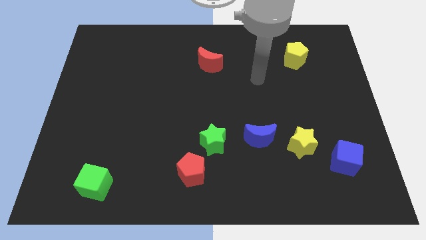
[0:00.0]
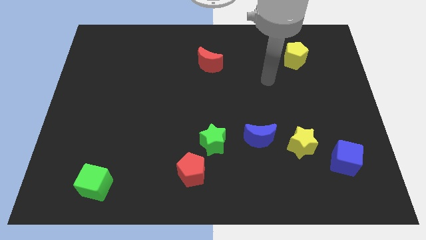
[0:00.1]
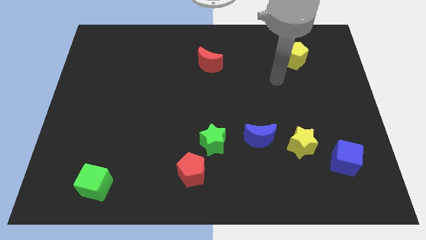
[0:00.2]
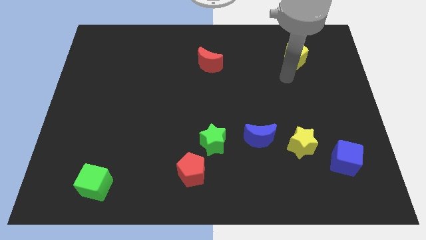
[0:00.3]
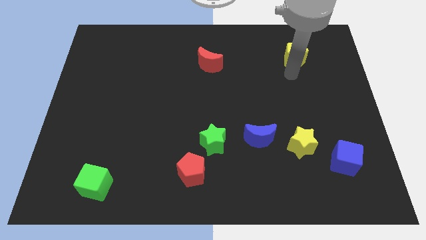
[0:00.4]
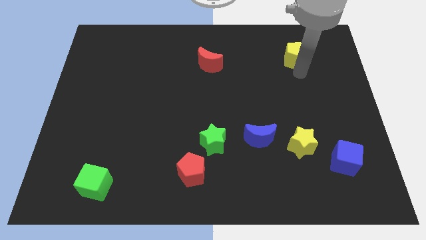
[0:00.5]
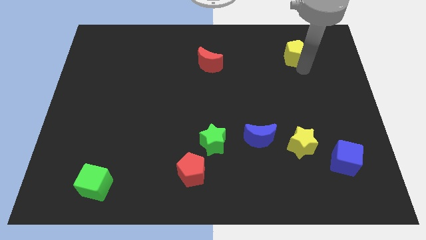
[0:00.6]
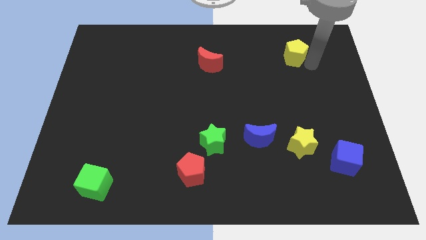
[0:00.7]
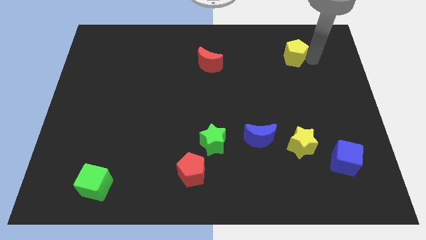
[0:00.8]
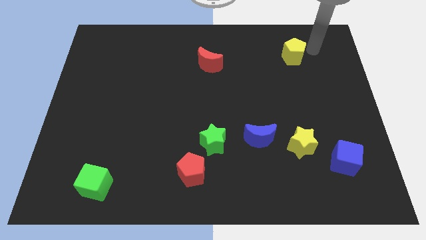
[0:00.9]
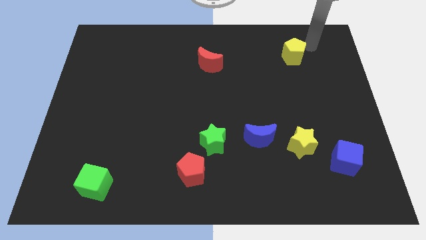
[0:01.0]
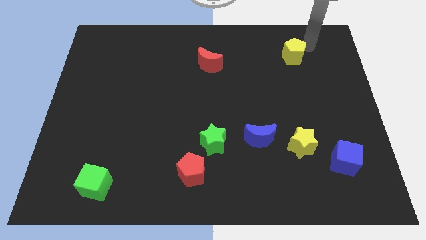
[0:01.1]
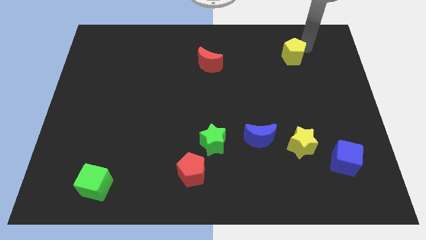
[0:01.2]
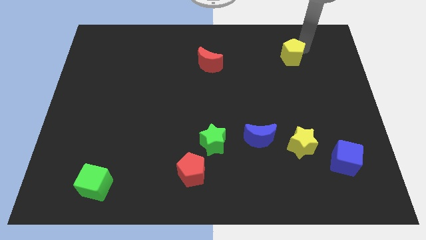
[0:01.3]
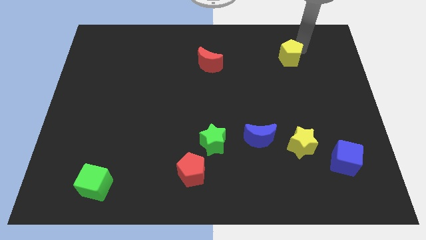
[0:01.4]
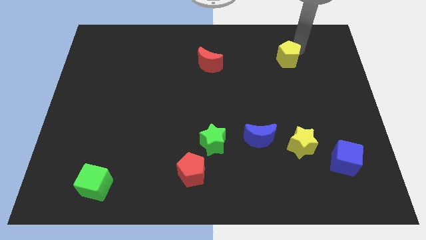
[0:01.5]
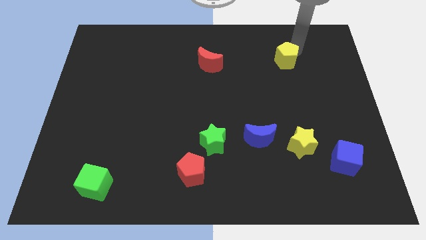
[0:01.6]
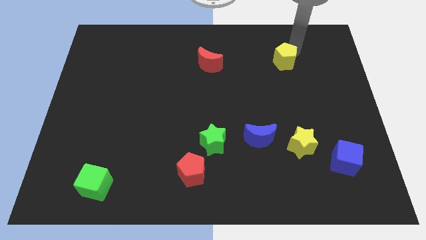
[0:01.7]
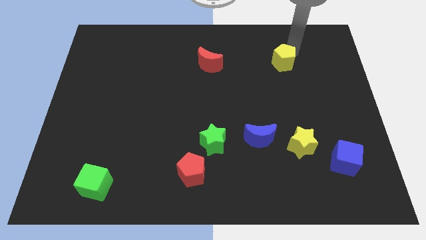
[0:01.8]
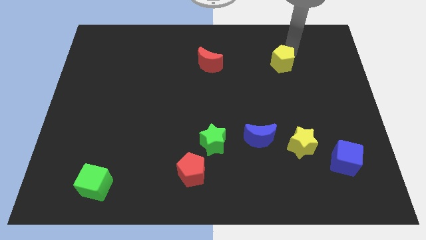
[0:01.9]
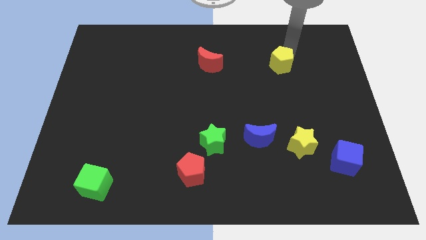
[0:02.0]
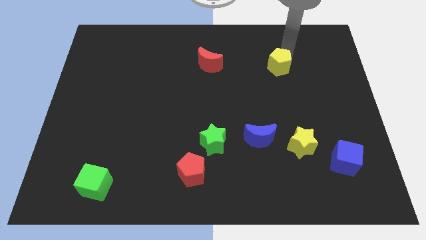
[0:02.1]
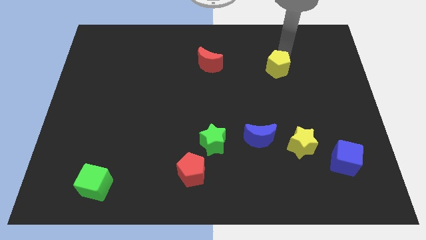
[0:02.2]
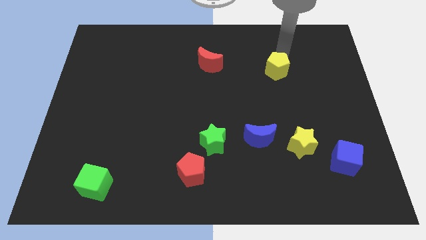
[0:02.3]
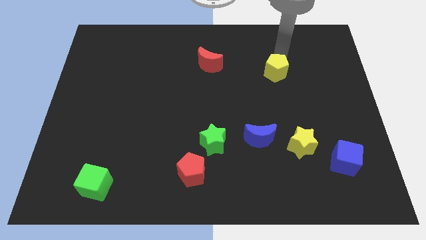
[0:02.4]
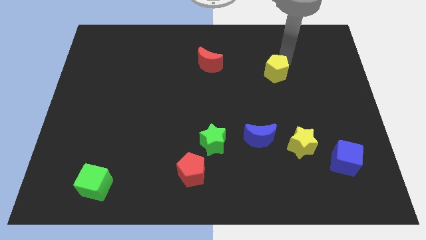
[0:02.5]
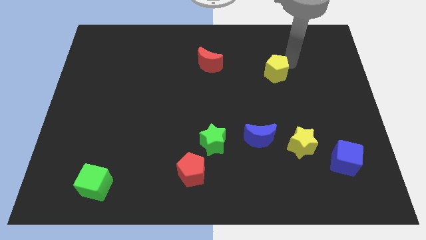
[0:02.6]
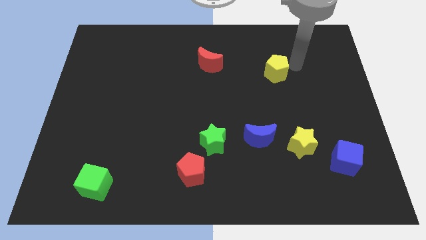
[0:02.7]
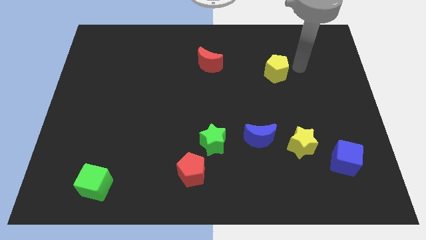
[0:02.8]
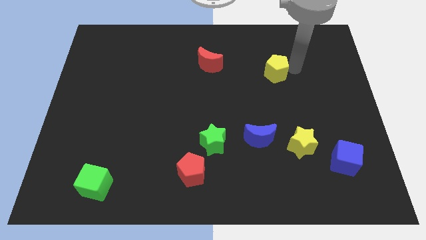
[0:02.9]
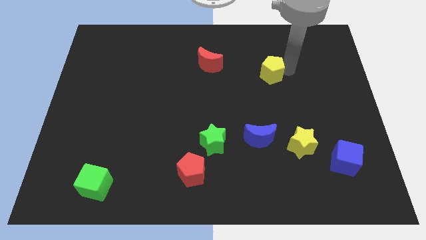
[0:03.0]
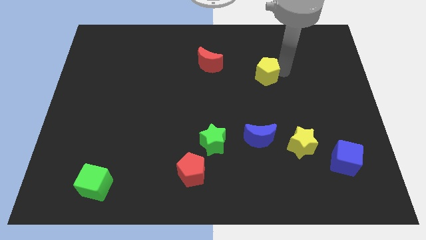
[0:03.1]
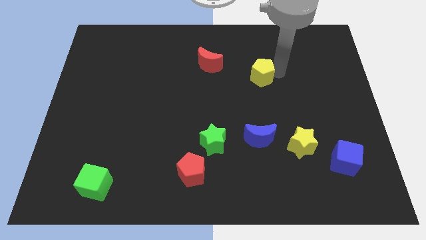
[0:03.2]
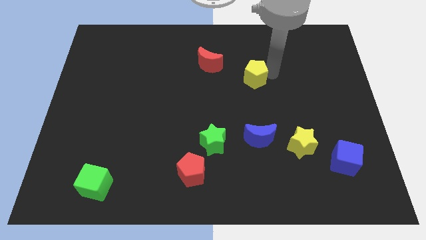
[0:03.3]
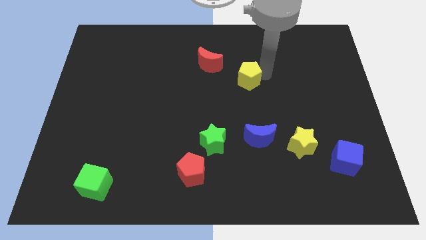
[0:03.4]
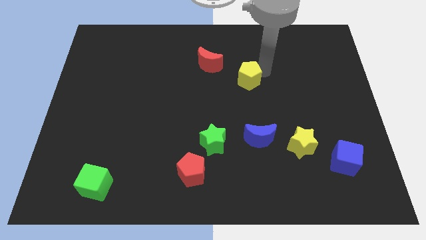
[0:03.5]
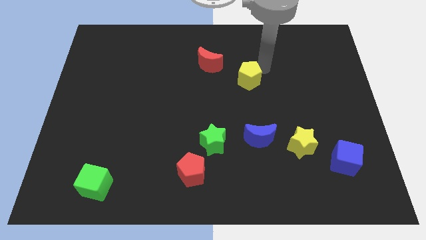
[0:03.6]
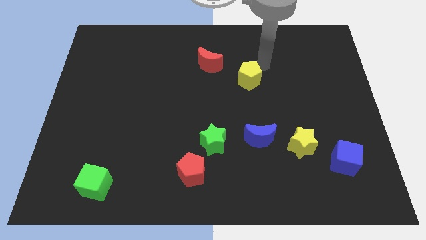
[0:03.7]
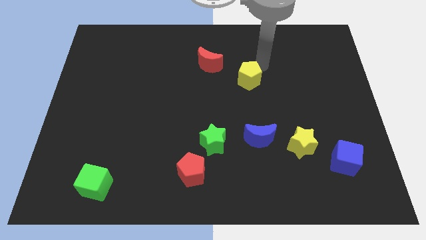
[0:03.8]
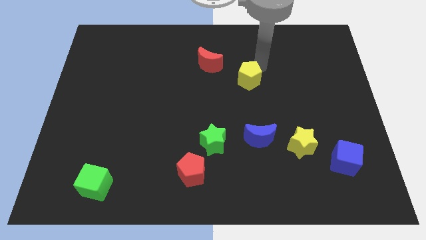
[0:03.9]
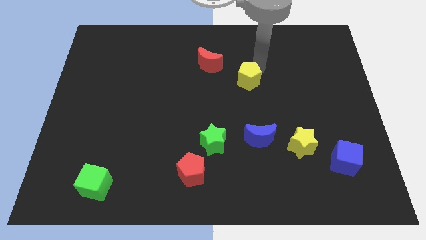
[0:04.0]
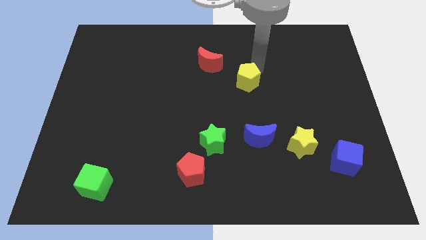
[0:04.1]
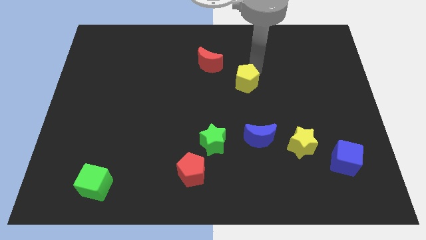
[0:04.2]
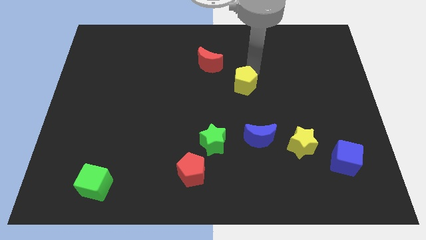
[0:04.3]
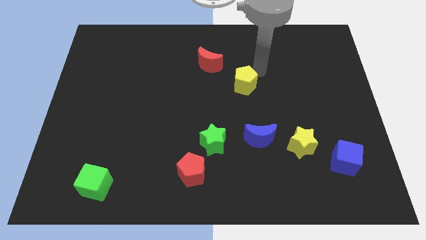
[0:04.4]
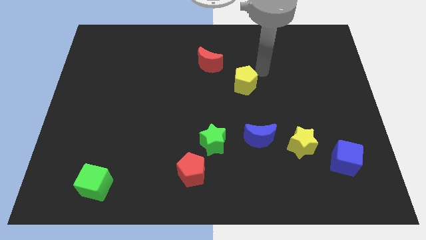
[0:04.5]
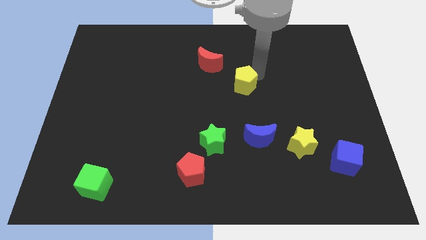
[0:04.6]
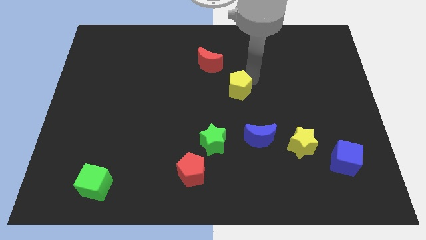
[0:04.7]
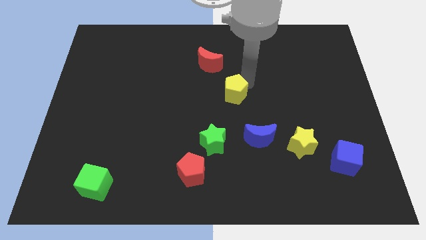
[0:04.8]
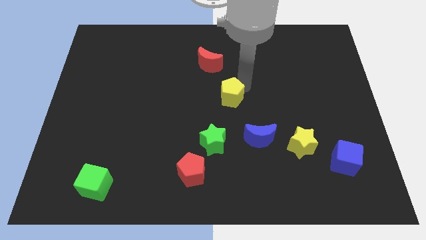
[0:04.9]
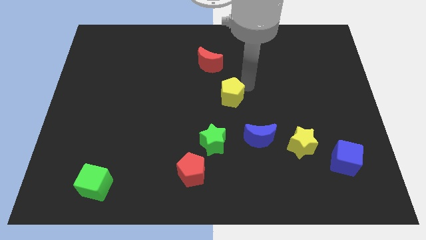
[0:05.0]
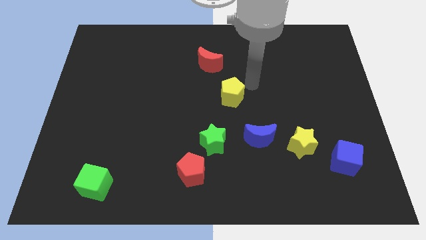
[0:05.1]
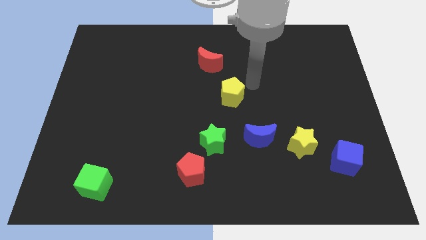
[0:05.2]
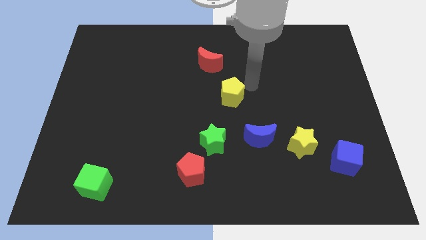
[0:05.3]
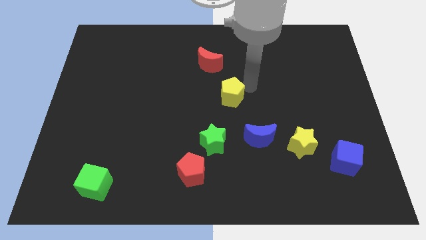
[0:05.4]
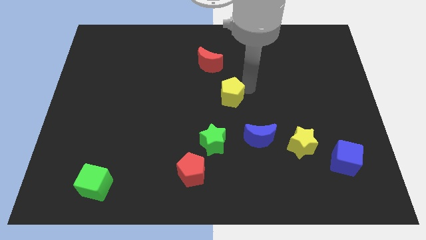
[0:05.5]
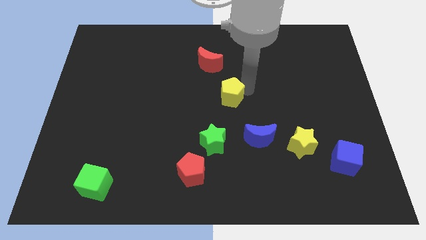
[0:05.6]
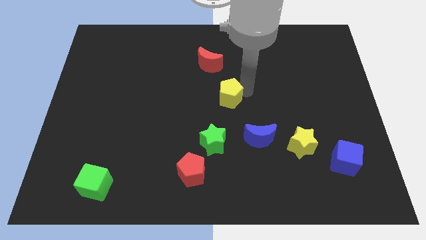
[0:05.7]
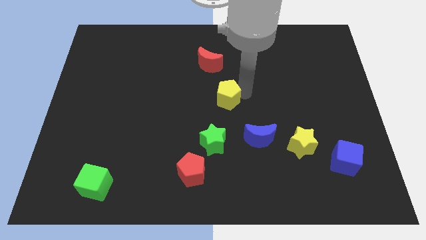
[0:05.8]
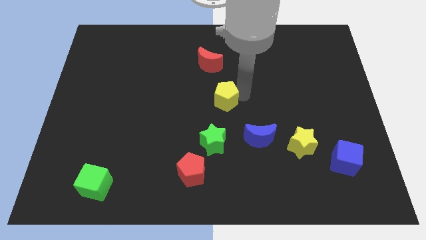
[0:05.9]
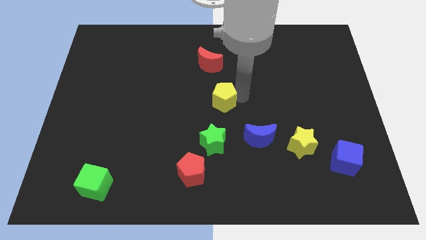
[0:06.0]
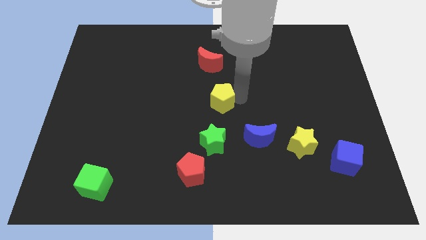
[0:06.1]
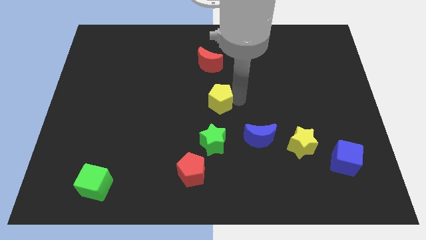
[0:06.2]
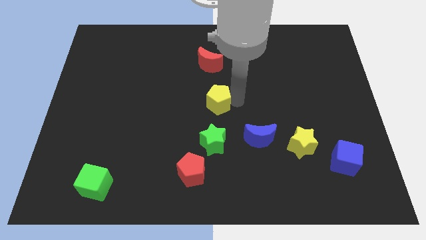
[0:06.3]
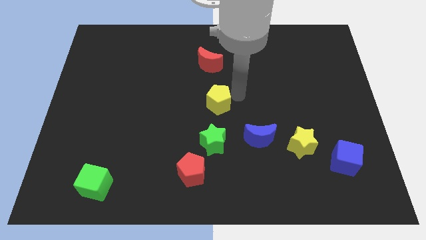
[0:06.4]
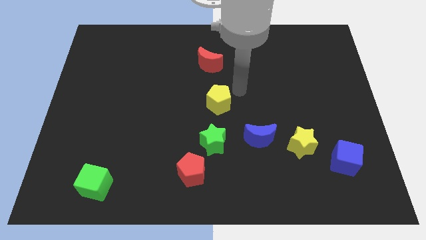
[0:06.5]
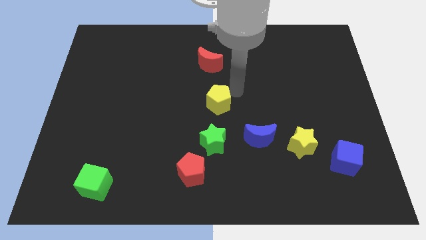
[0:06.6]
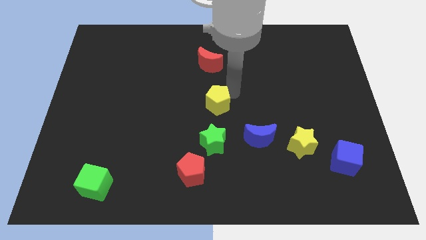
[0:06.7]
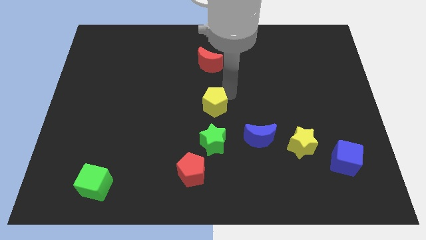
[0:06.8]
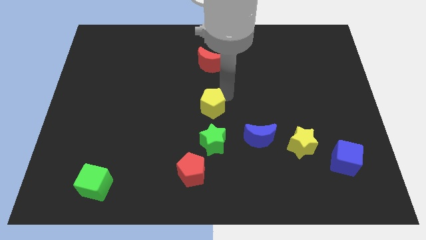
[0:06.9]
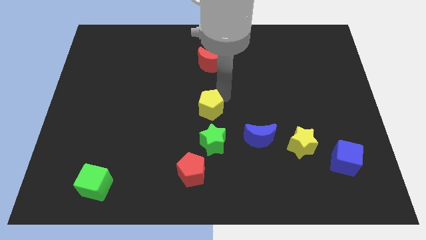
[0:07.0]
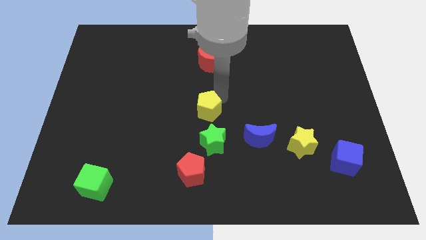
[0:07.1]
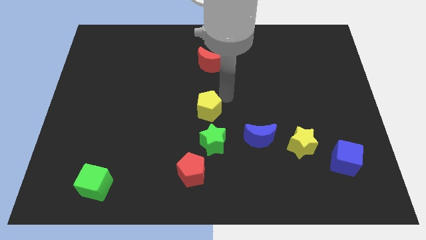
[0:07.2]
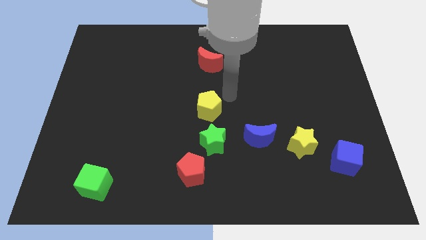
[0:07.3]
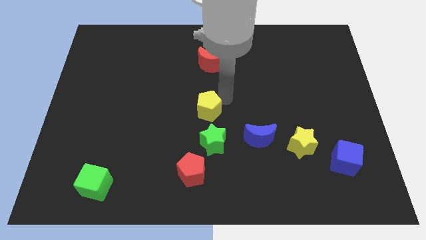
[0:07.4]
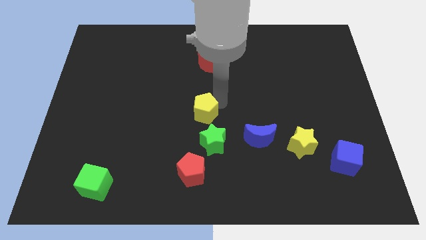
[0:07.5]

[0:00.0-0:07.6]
move the yellow pentagon diagonally up and to the left of the green star
